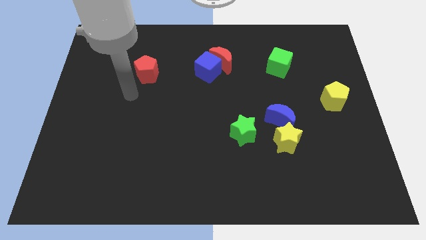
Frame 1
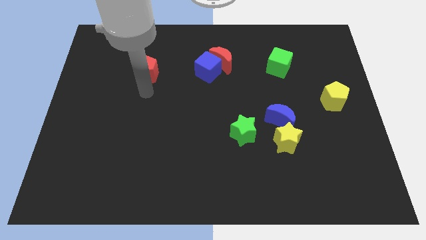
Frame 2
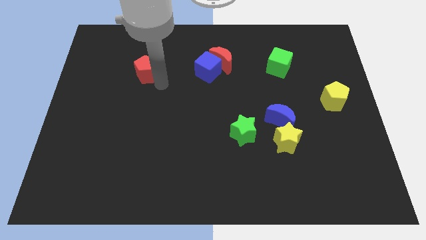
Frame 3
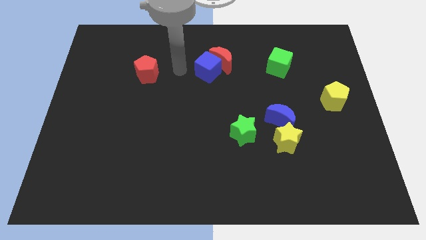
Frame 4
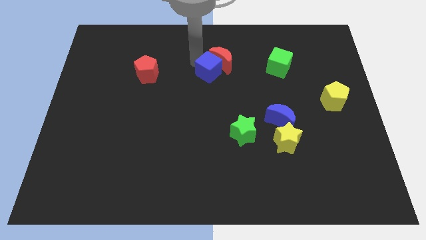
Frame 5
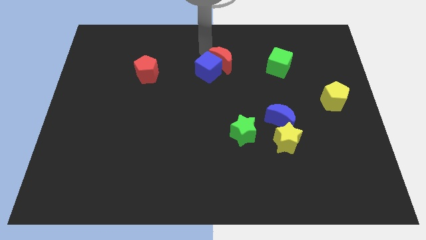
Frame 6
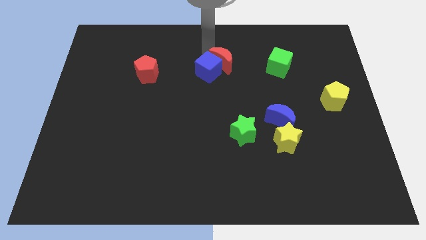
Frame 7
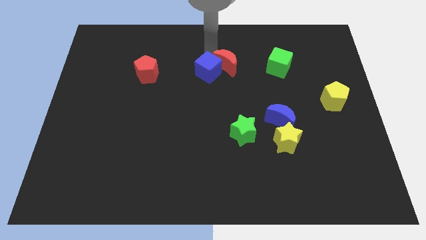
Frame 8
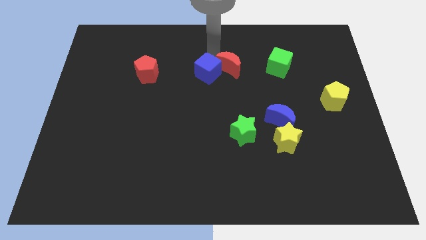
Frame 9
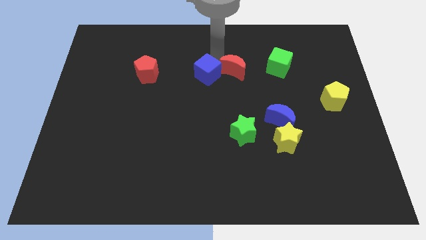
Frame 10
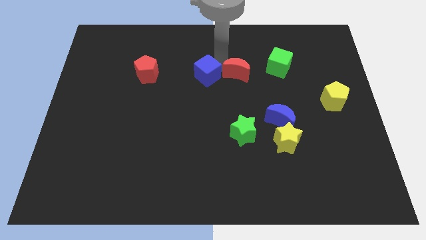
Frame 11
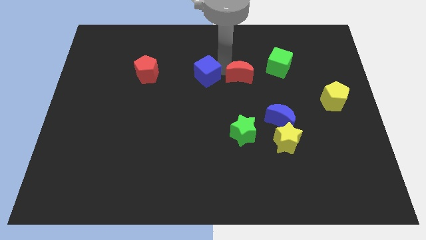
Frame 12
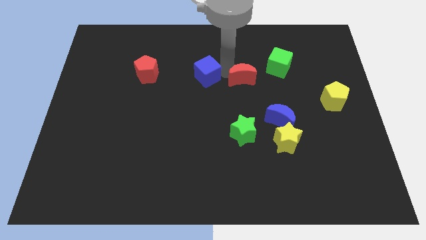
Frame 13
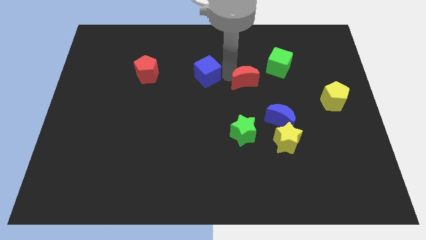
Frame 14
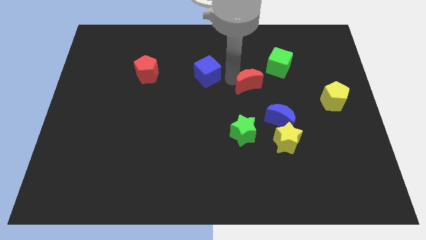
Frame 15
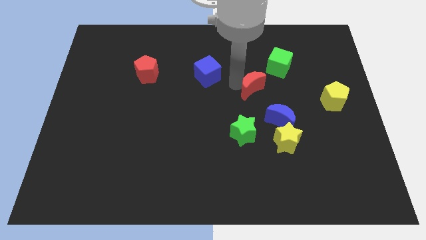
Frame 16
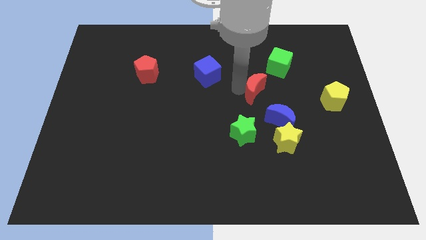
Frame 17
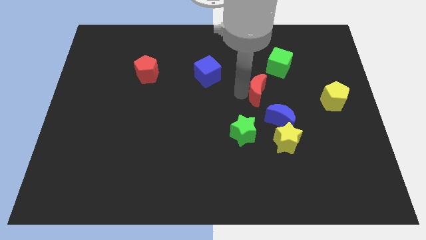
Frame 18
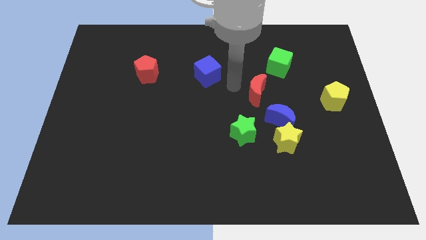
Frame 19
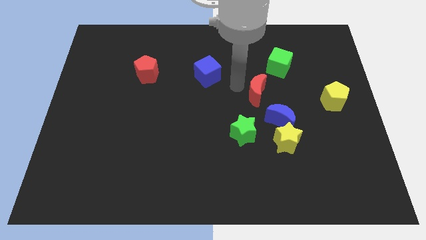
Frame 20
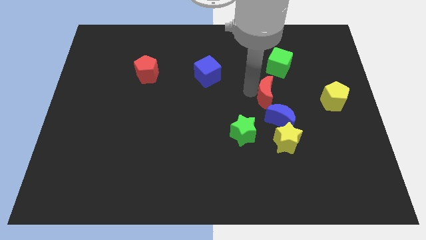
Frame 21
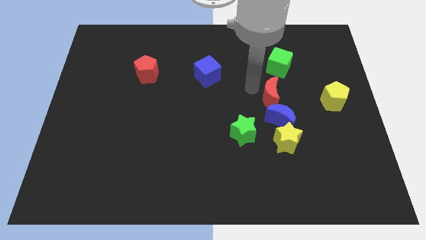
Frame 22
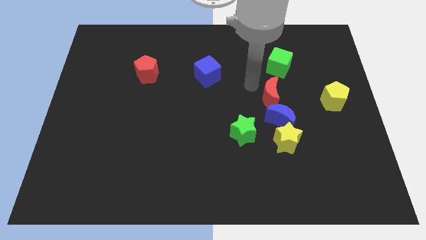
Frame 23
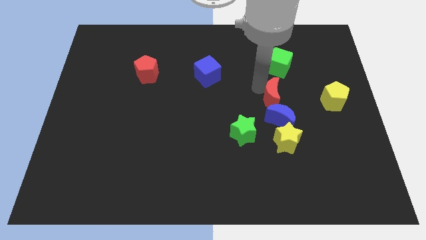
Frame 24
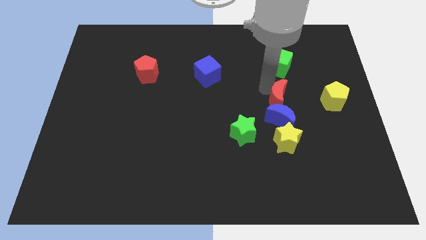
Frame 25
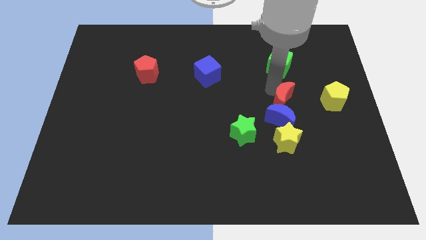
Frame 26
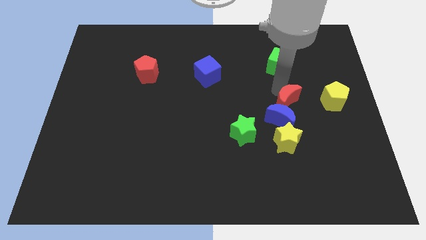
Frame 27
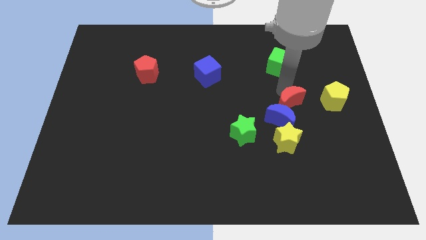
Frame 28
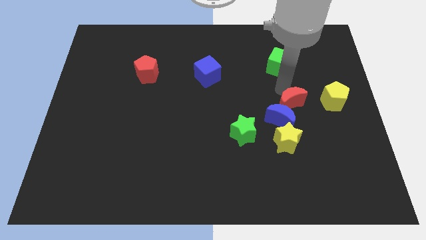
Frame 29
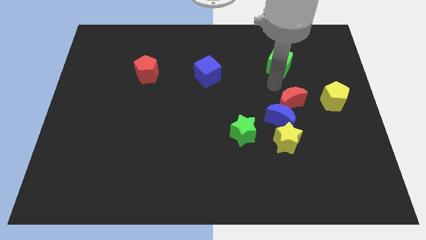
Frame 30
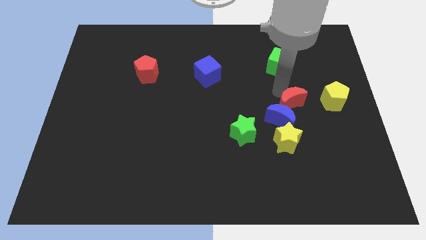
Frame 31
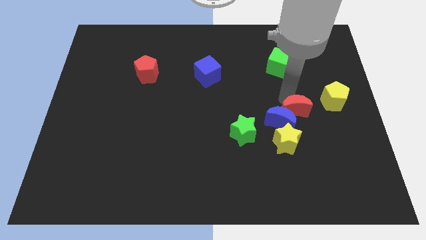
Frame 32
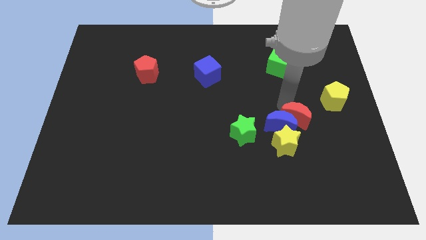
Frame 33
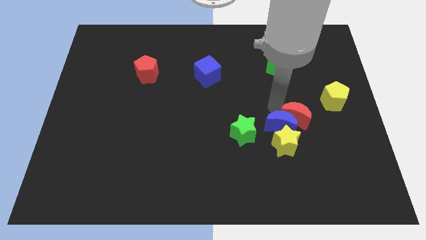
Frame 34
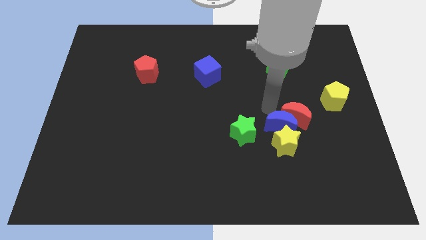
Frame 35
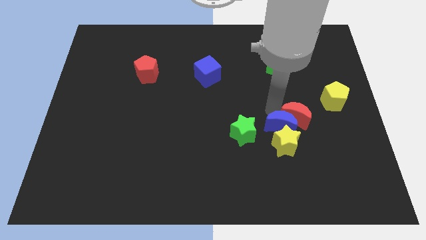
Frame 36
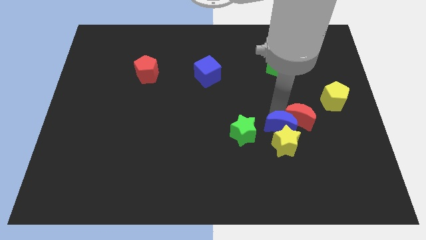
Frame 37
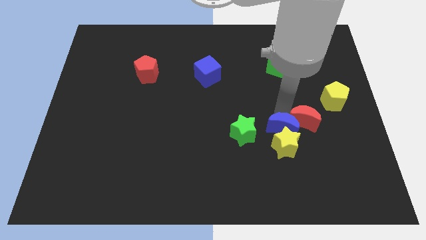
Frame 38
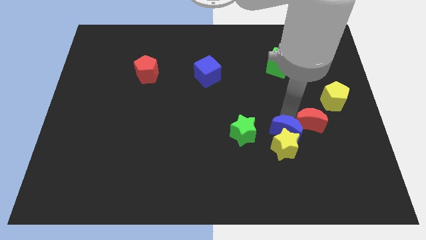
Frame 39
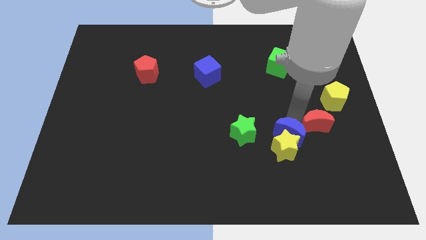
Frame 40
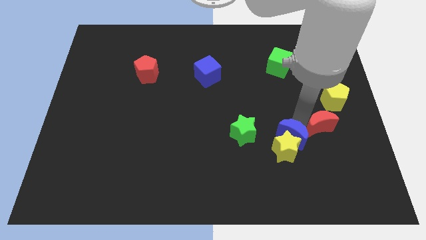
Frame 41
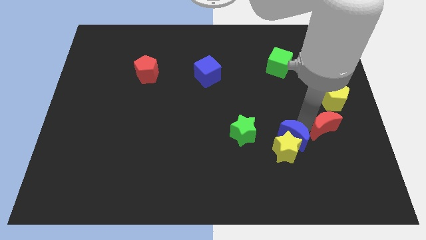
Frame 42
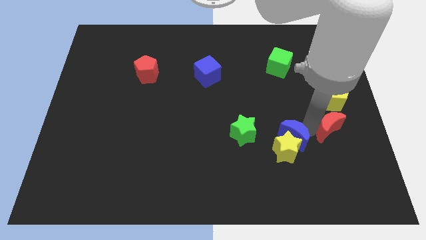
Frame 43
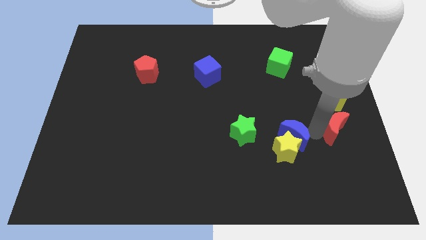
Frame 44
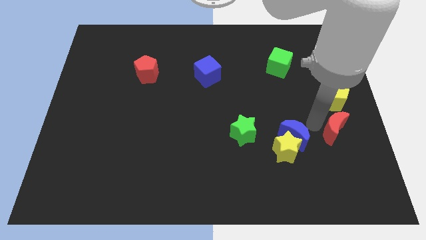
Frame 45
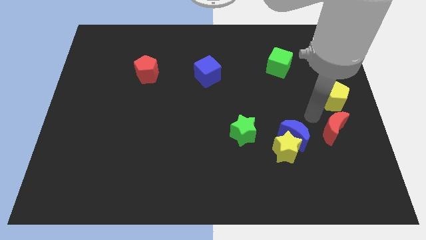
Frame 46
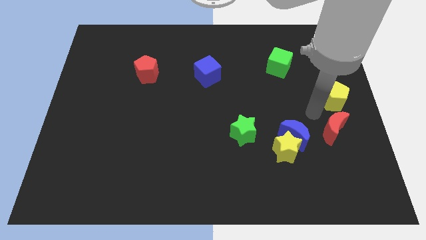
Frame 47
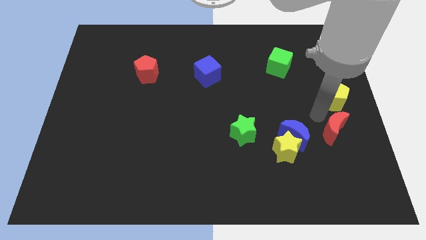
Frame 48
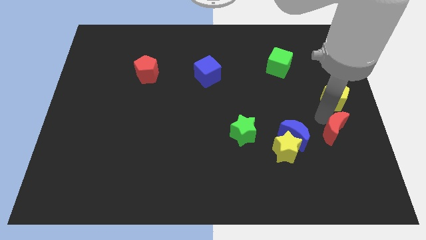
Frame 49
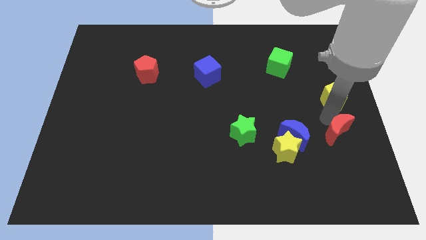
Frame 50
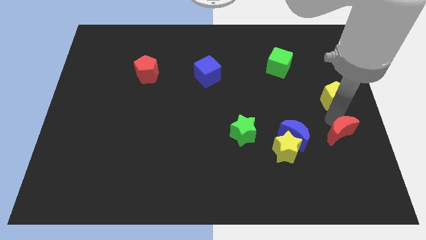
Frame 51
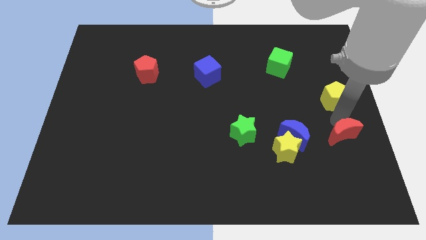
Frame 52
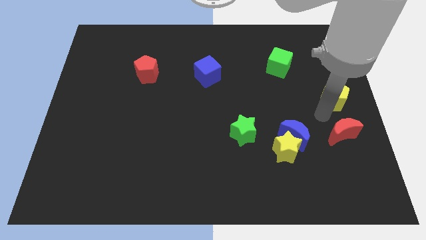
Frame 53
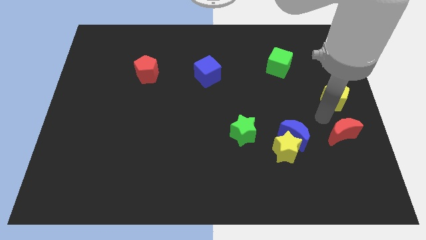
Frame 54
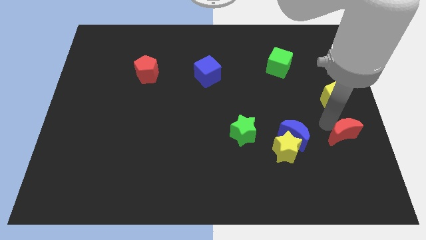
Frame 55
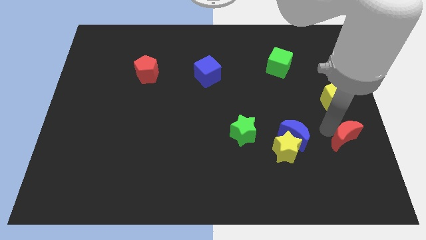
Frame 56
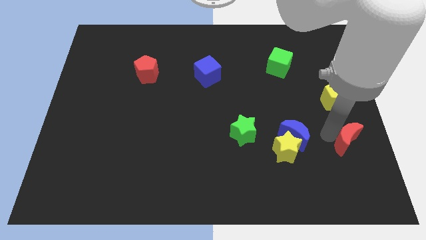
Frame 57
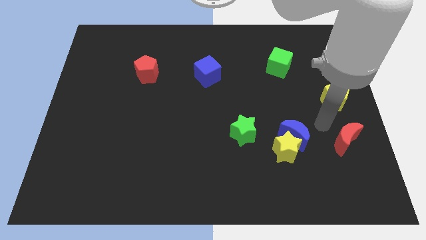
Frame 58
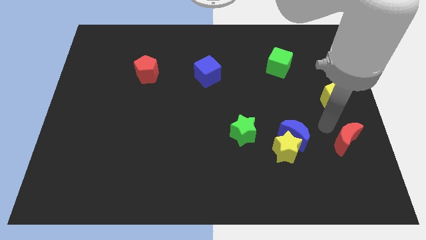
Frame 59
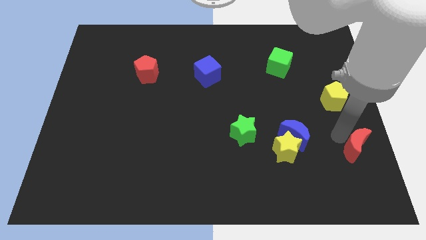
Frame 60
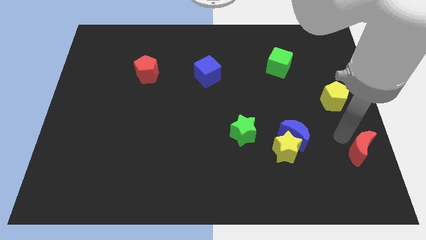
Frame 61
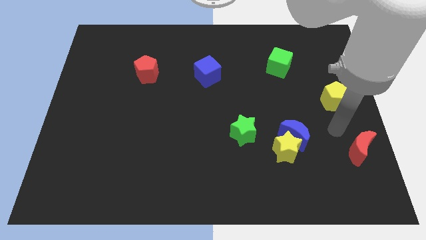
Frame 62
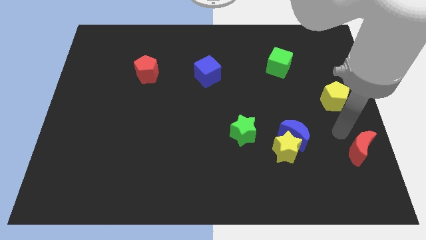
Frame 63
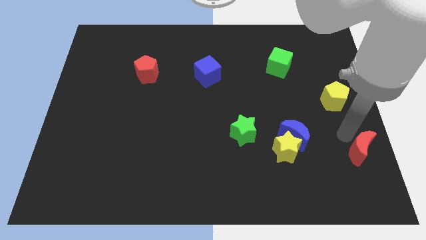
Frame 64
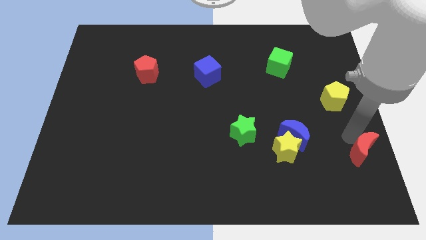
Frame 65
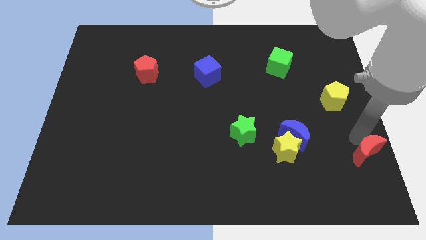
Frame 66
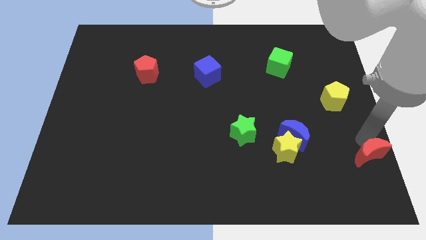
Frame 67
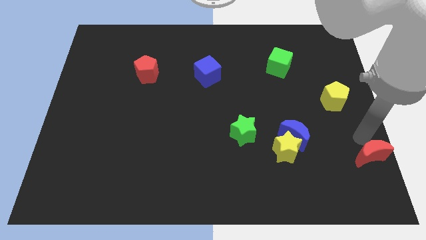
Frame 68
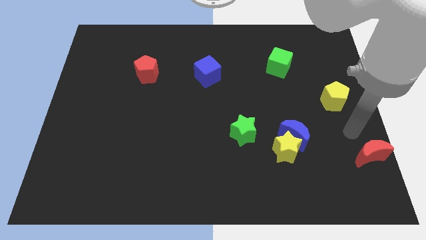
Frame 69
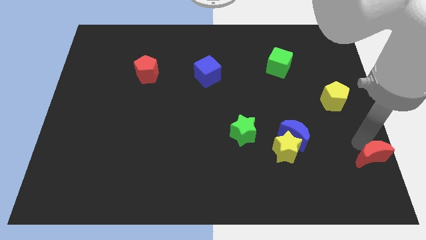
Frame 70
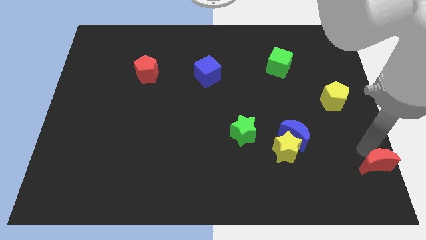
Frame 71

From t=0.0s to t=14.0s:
move the red moon to the lower right corner
